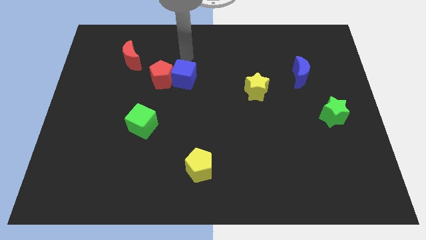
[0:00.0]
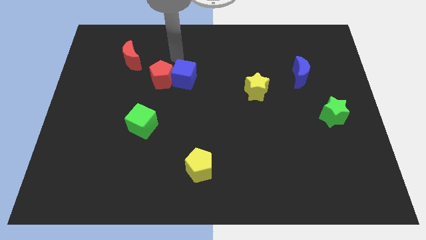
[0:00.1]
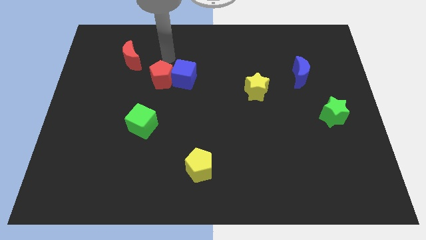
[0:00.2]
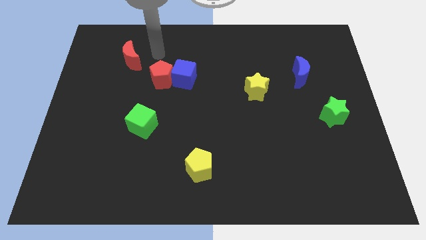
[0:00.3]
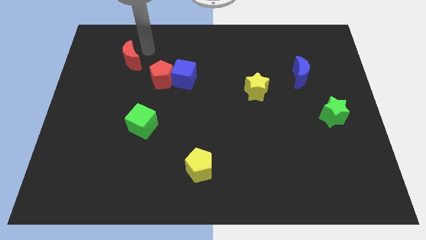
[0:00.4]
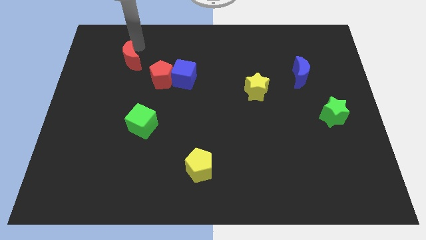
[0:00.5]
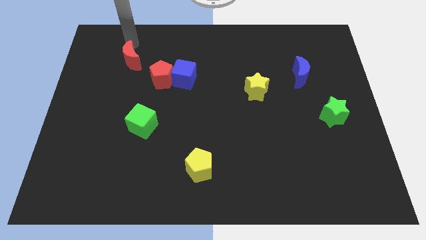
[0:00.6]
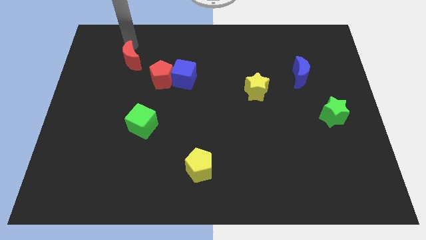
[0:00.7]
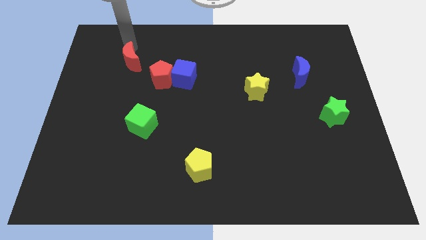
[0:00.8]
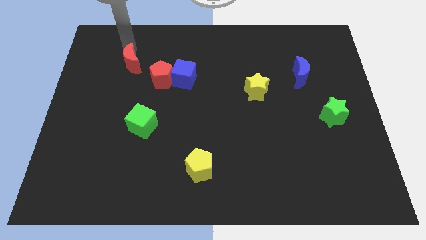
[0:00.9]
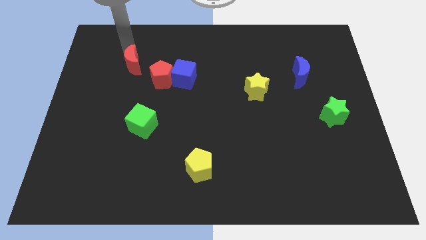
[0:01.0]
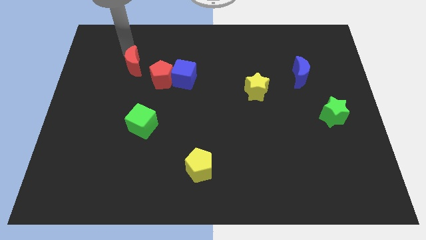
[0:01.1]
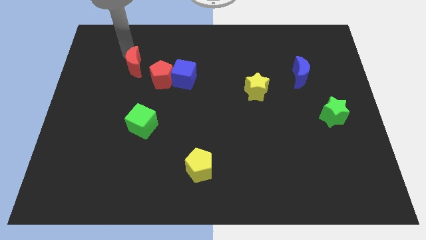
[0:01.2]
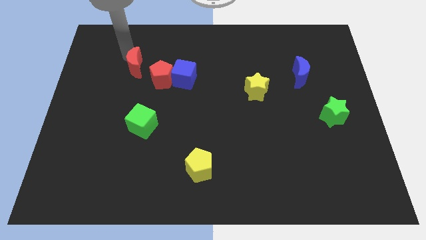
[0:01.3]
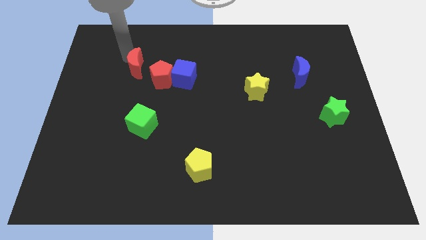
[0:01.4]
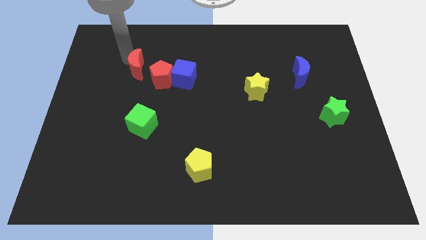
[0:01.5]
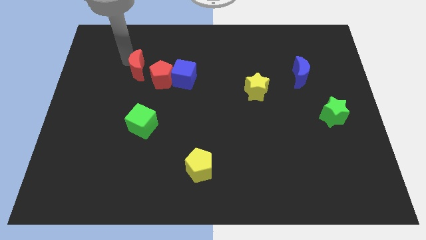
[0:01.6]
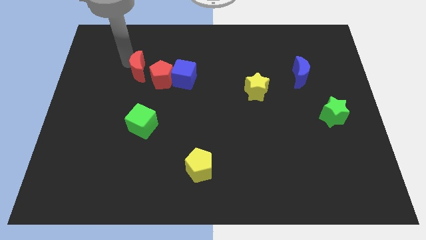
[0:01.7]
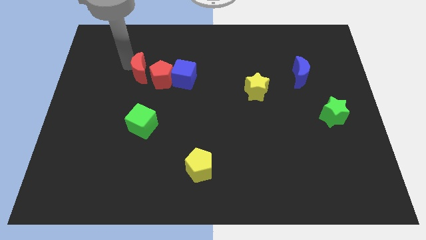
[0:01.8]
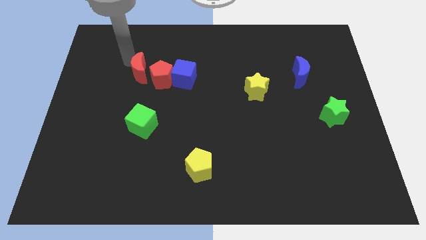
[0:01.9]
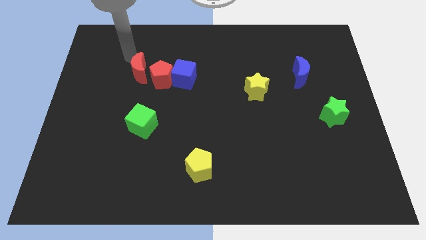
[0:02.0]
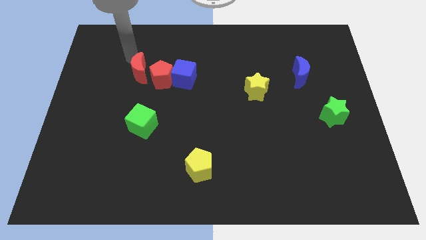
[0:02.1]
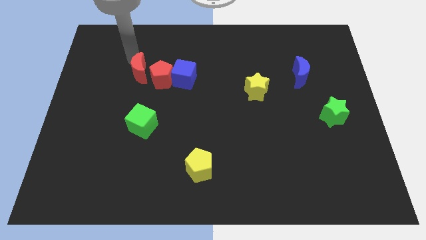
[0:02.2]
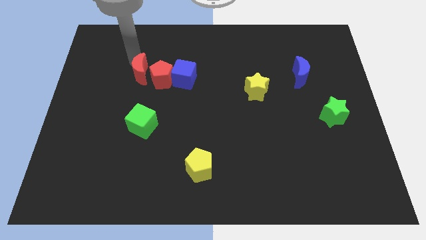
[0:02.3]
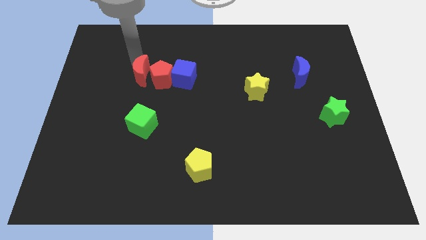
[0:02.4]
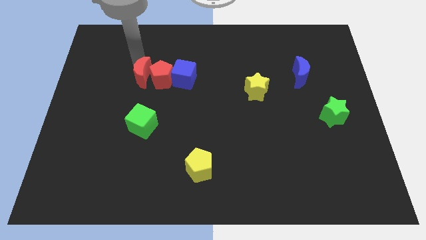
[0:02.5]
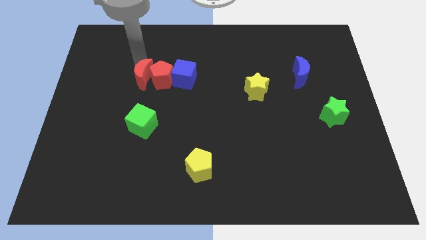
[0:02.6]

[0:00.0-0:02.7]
slide the red moon down and to the right a little bit

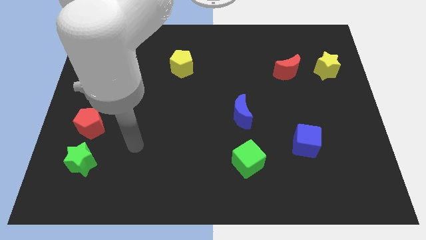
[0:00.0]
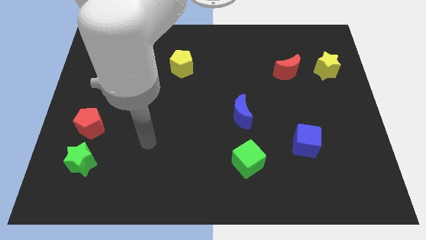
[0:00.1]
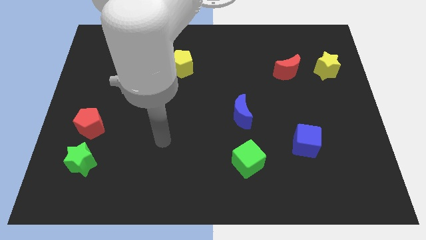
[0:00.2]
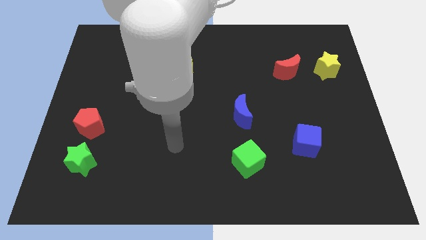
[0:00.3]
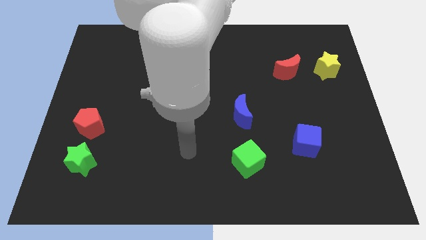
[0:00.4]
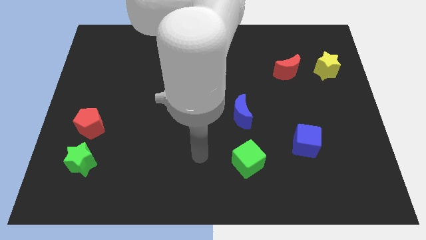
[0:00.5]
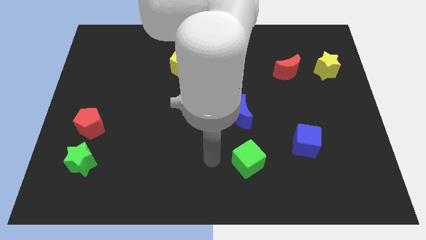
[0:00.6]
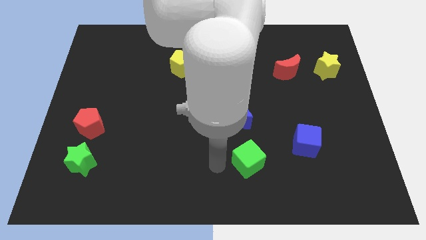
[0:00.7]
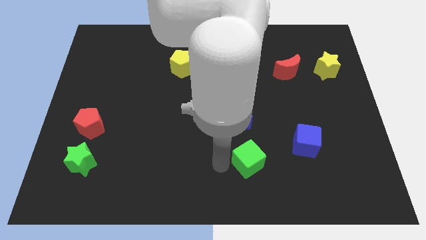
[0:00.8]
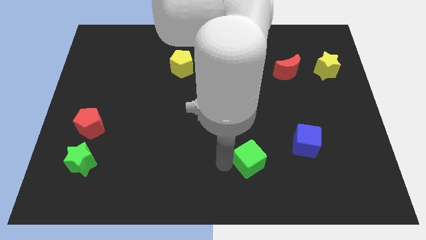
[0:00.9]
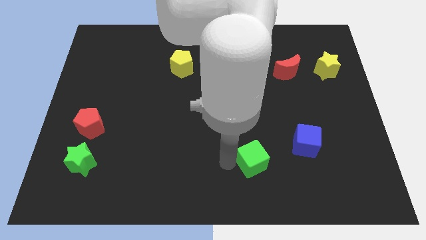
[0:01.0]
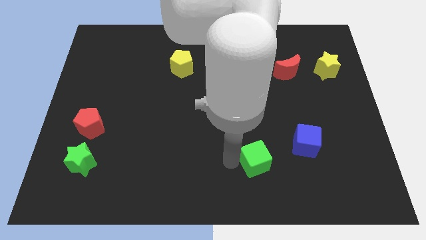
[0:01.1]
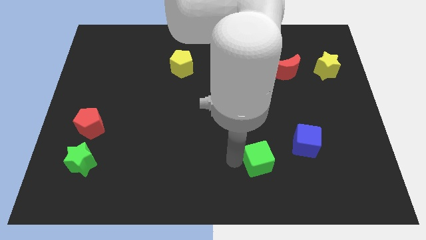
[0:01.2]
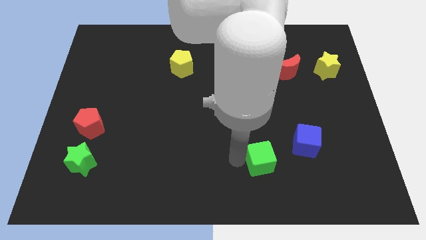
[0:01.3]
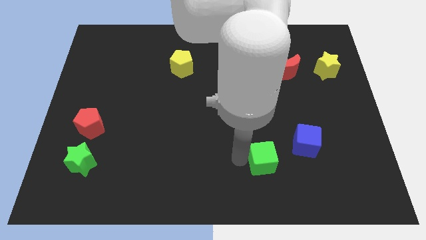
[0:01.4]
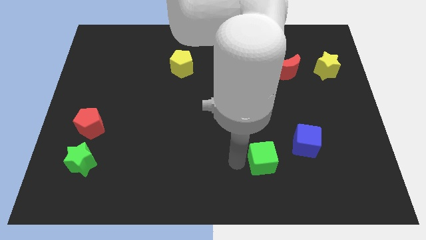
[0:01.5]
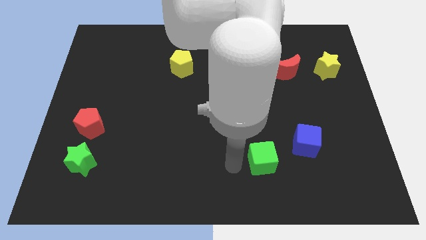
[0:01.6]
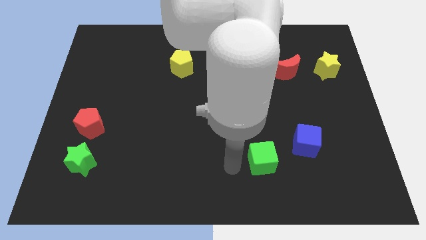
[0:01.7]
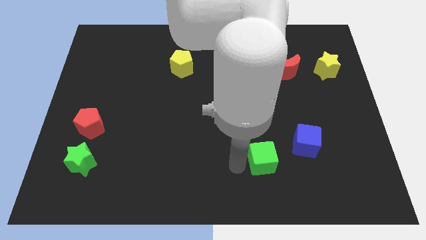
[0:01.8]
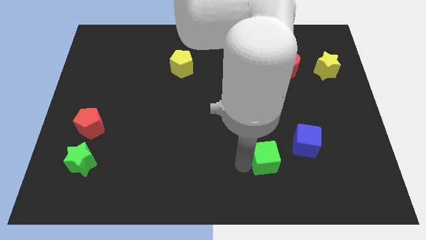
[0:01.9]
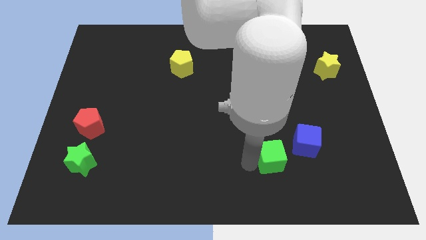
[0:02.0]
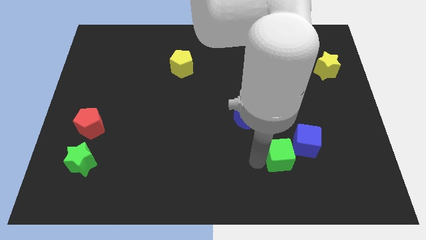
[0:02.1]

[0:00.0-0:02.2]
slightly slide the green cube right

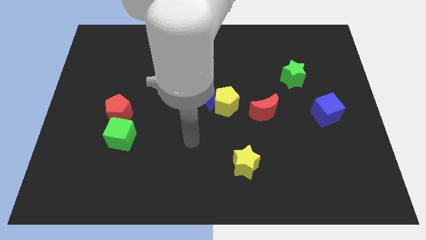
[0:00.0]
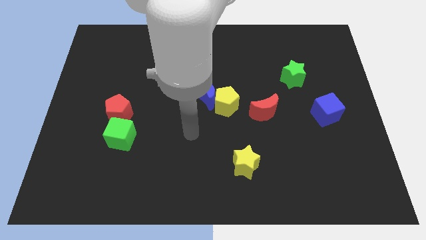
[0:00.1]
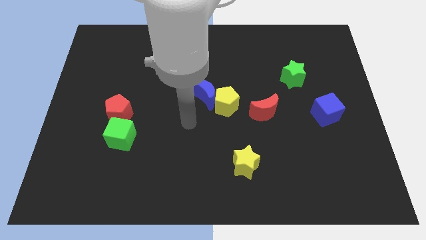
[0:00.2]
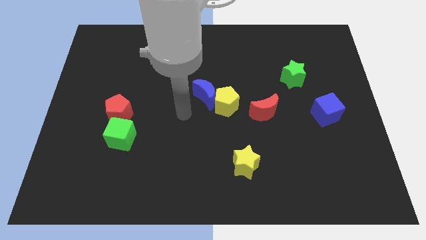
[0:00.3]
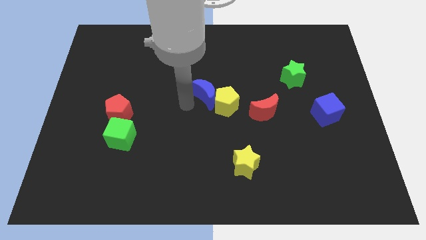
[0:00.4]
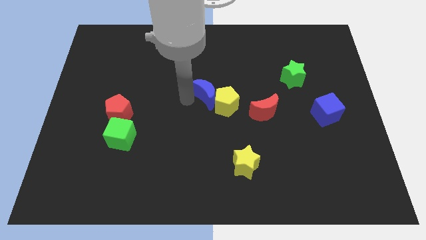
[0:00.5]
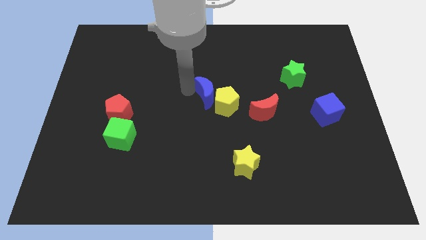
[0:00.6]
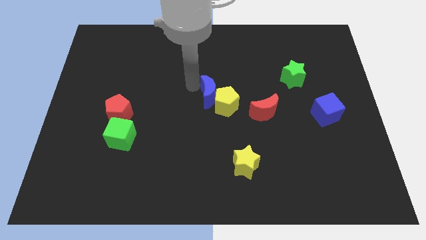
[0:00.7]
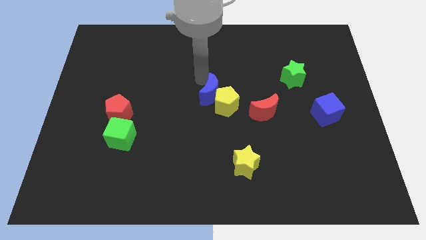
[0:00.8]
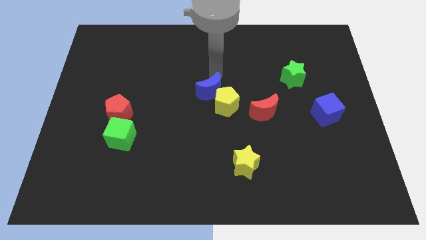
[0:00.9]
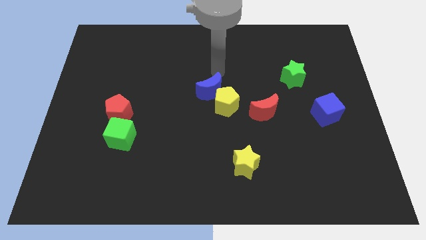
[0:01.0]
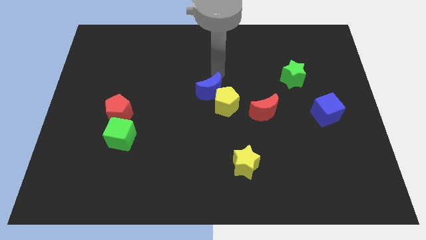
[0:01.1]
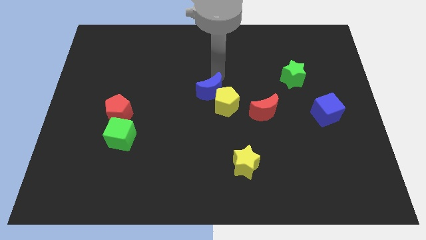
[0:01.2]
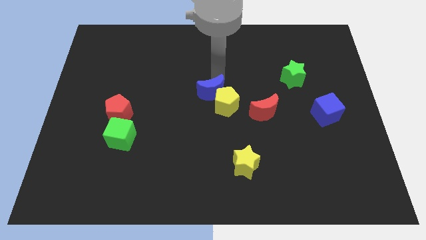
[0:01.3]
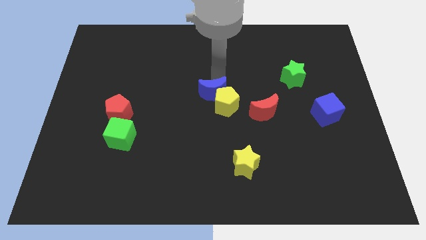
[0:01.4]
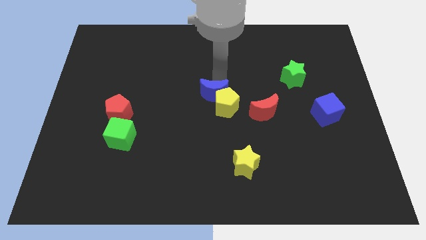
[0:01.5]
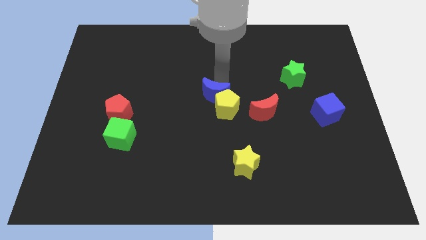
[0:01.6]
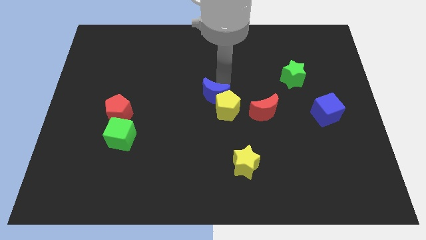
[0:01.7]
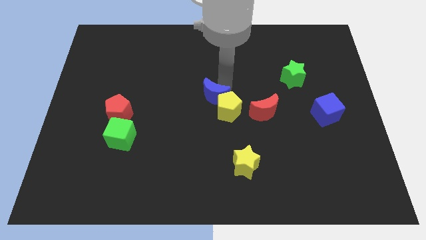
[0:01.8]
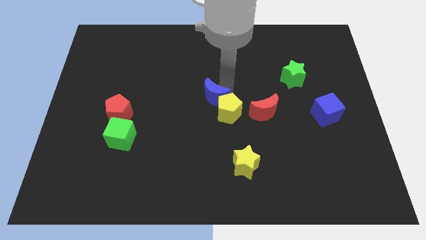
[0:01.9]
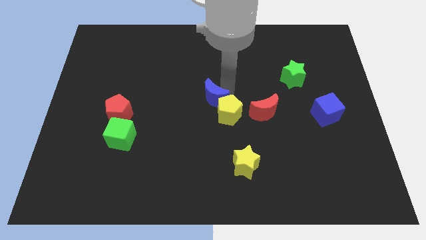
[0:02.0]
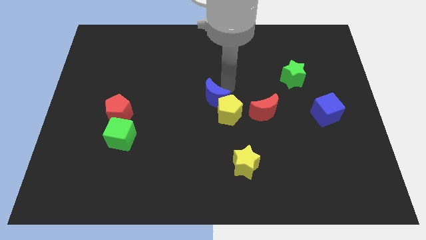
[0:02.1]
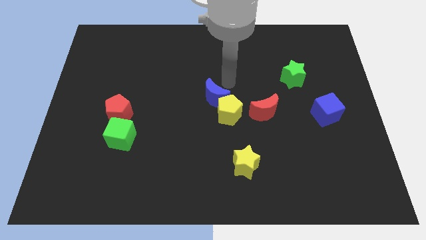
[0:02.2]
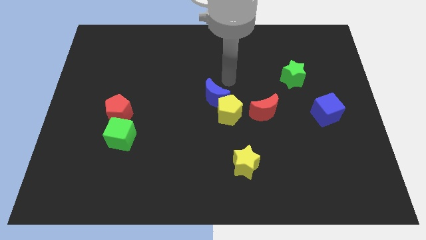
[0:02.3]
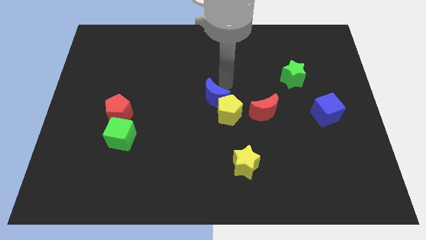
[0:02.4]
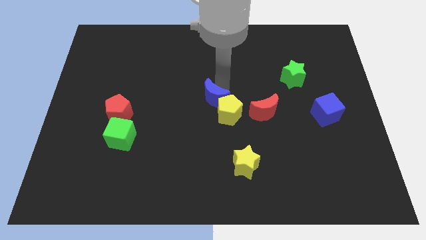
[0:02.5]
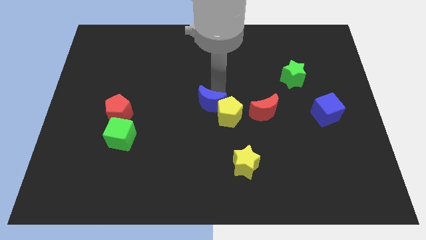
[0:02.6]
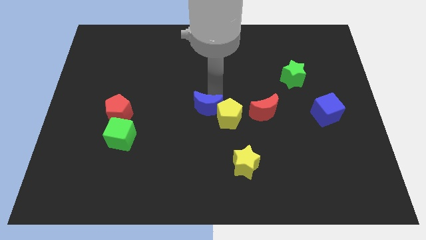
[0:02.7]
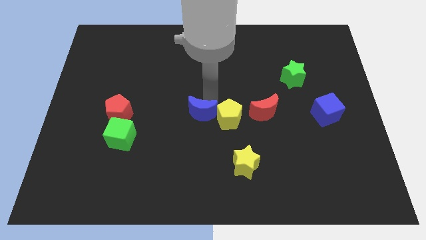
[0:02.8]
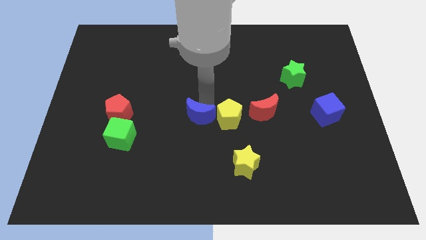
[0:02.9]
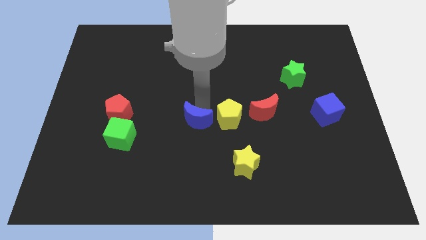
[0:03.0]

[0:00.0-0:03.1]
move the blue moon slightly downwards
